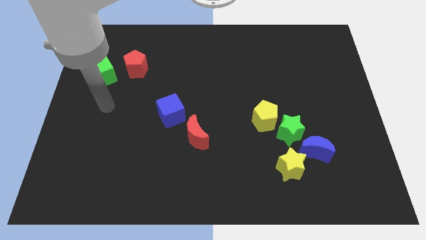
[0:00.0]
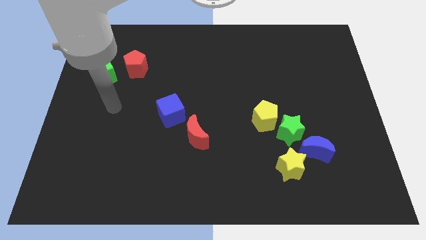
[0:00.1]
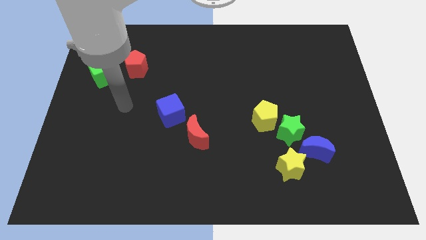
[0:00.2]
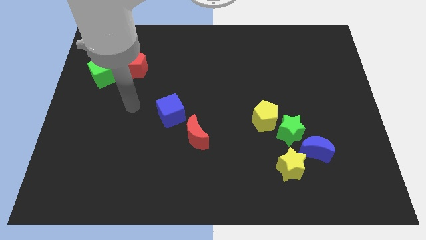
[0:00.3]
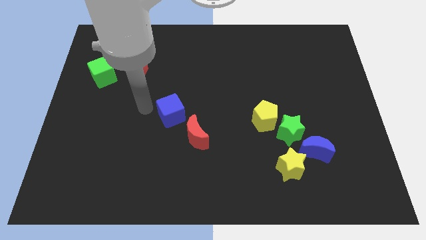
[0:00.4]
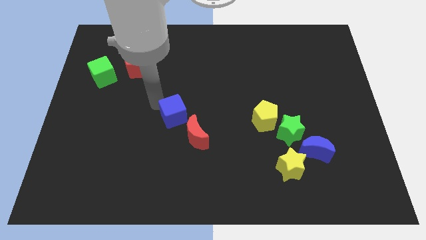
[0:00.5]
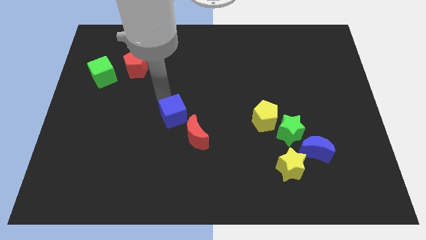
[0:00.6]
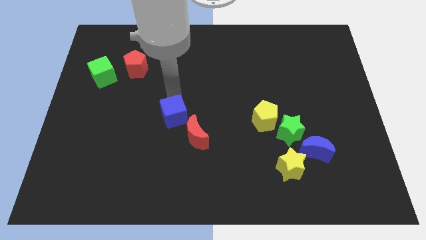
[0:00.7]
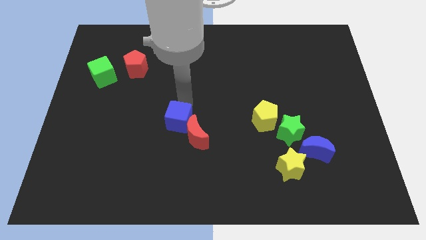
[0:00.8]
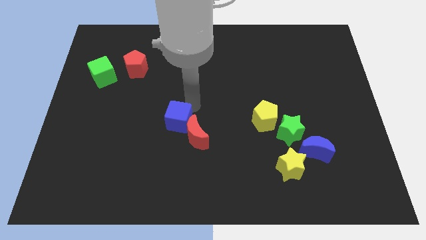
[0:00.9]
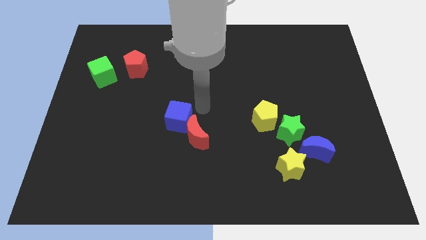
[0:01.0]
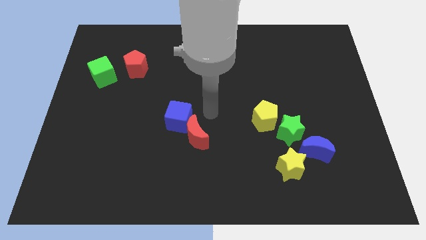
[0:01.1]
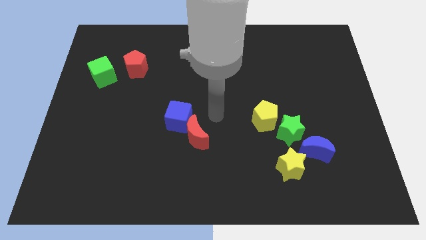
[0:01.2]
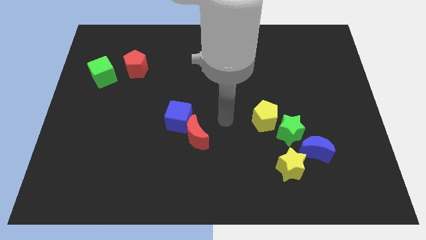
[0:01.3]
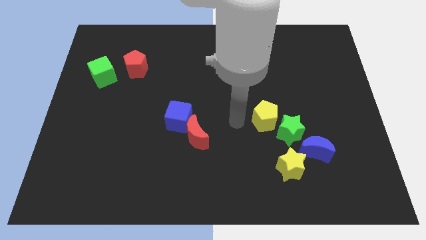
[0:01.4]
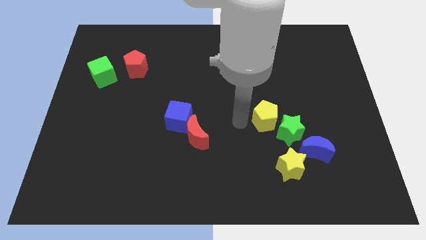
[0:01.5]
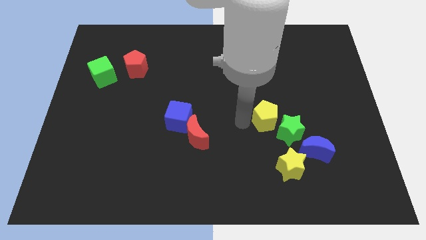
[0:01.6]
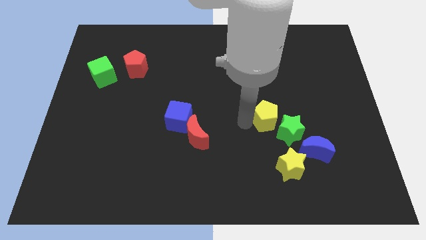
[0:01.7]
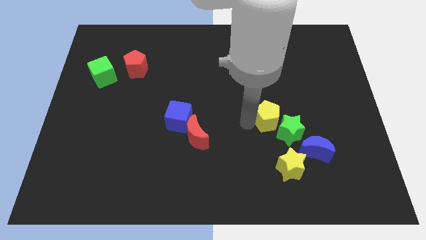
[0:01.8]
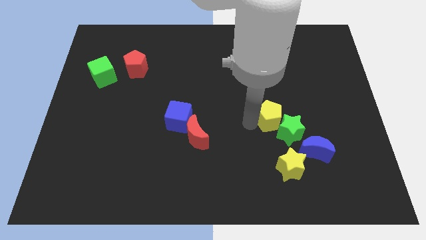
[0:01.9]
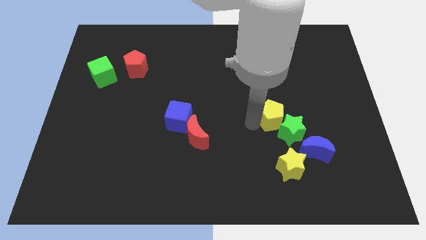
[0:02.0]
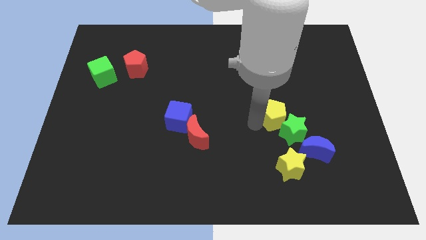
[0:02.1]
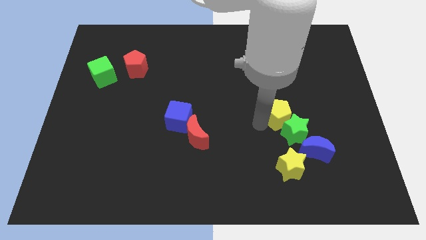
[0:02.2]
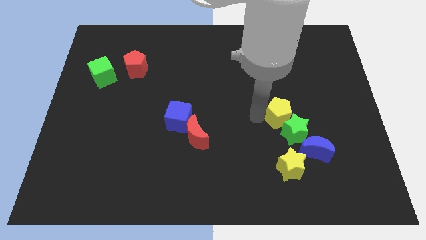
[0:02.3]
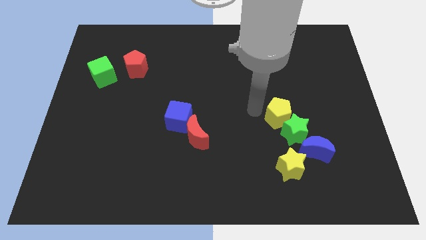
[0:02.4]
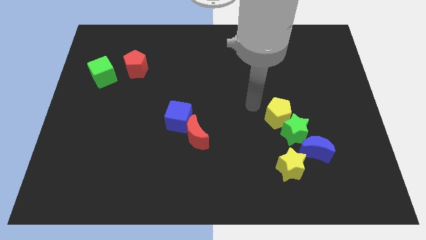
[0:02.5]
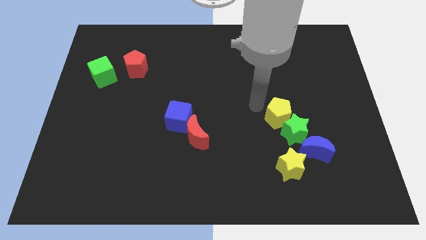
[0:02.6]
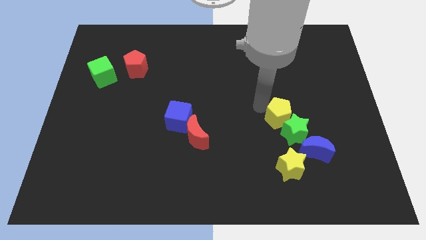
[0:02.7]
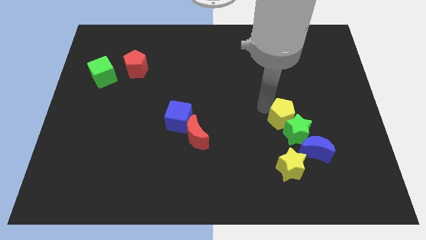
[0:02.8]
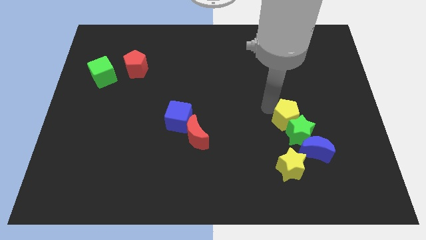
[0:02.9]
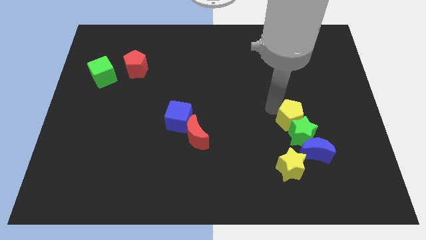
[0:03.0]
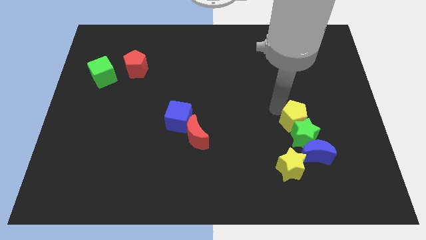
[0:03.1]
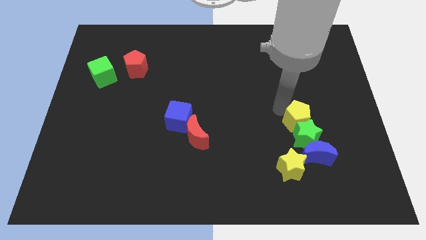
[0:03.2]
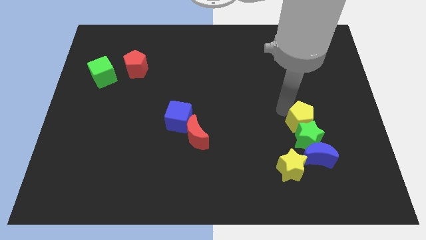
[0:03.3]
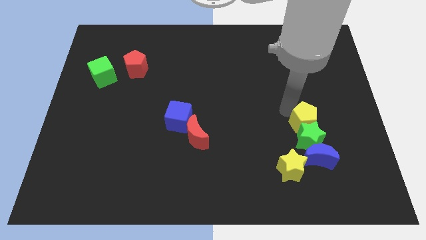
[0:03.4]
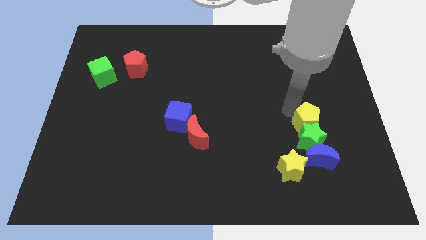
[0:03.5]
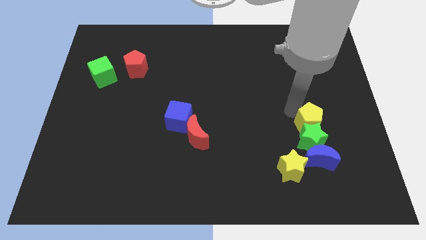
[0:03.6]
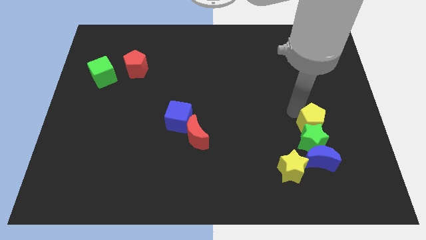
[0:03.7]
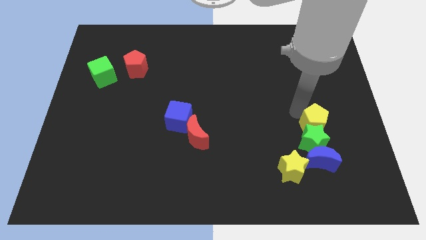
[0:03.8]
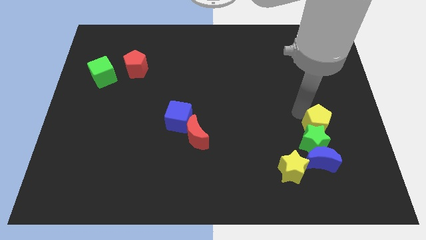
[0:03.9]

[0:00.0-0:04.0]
move the yellow pentagon a little bit downwards and then to the right

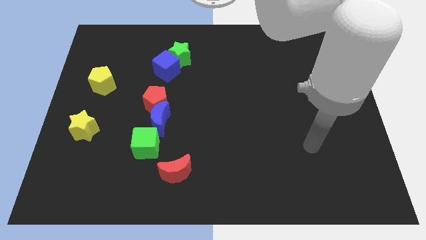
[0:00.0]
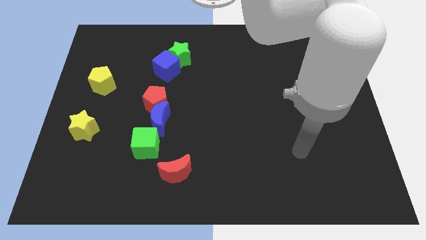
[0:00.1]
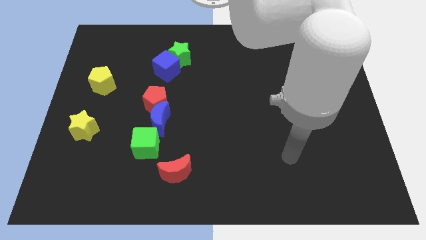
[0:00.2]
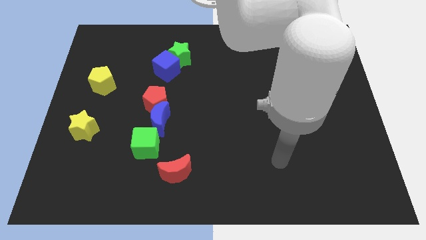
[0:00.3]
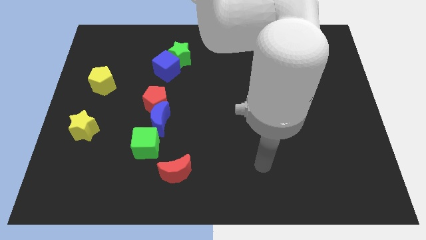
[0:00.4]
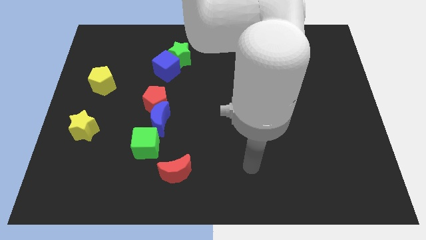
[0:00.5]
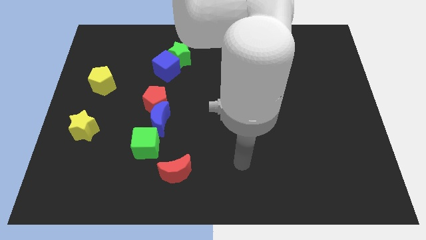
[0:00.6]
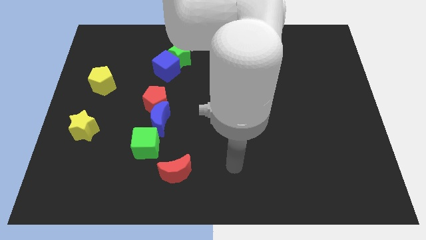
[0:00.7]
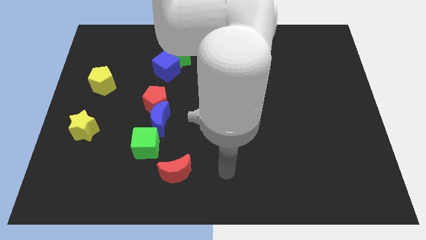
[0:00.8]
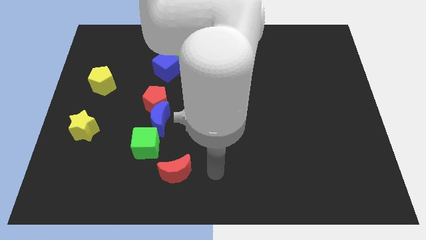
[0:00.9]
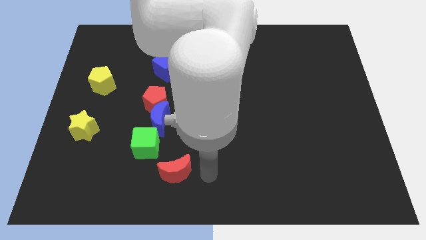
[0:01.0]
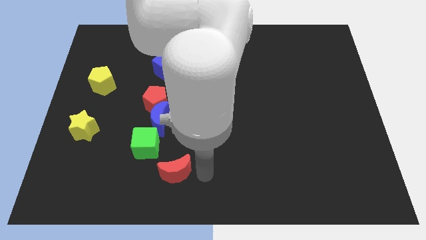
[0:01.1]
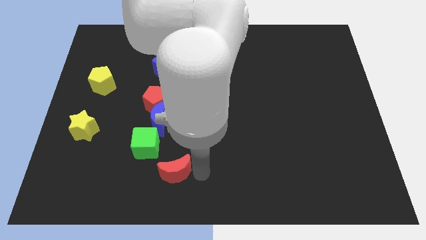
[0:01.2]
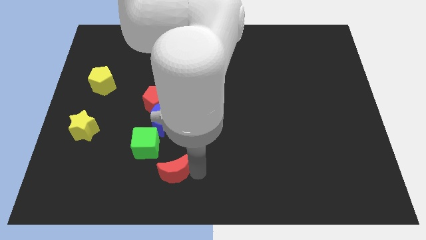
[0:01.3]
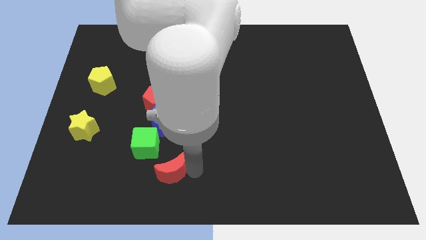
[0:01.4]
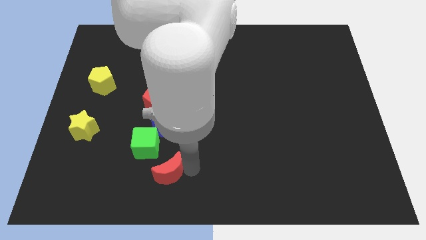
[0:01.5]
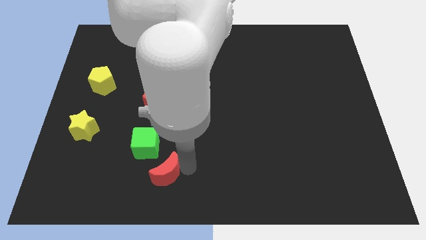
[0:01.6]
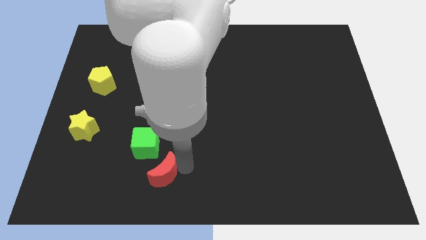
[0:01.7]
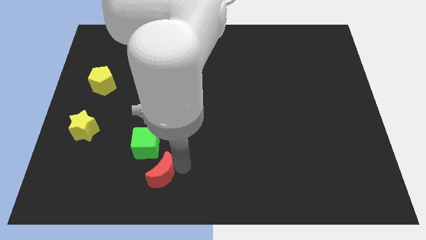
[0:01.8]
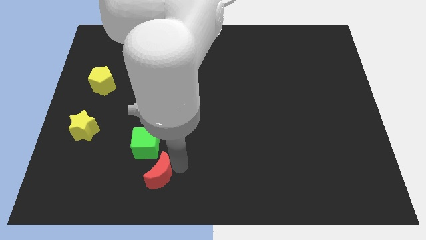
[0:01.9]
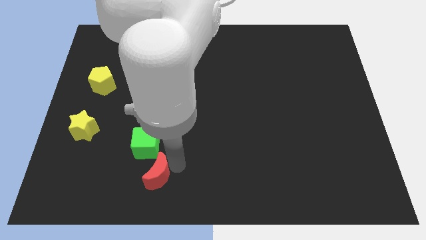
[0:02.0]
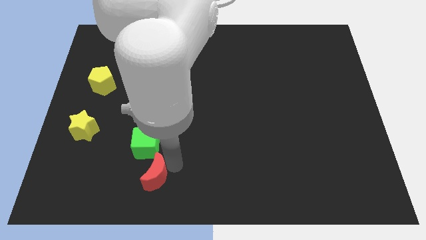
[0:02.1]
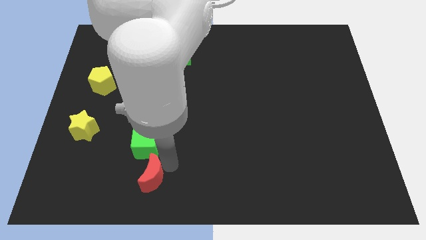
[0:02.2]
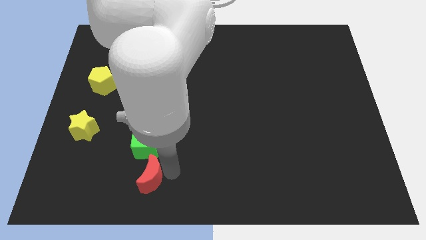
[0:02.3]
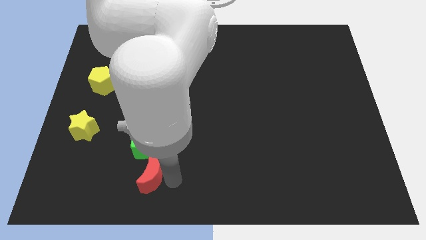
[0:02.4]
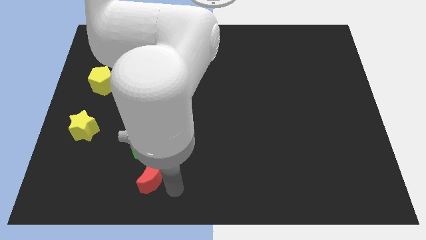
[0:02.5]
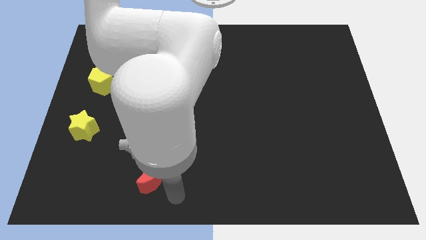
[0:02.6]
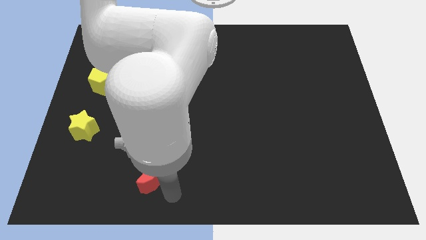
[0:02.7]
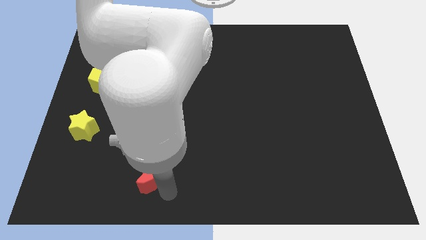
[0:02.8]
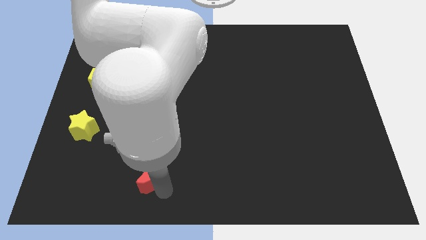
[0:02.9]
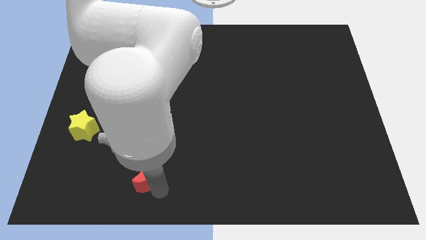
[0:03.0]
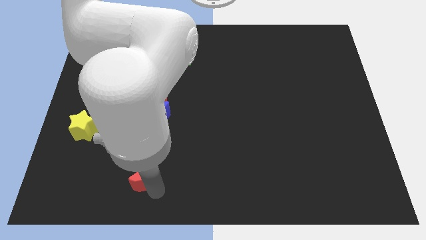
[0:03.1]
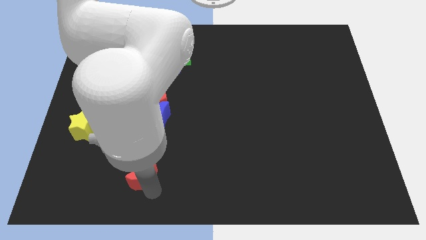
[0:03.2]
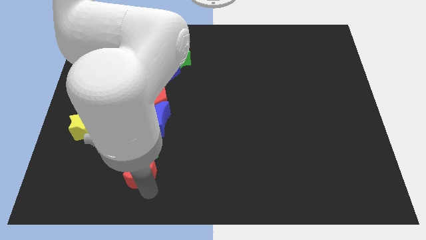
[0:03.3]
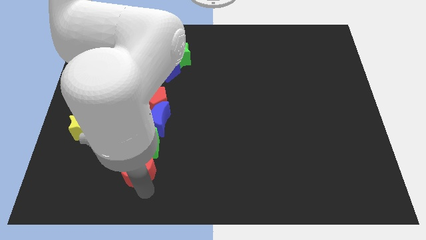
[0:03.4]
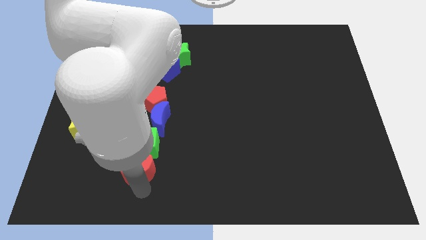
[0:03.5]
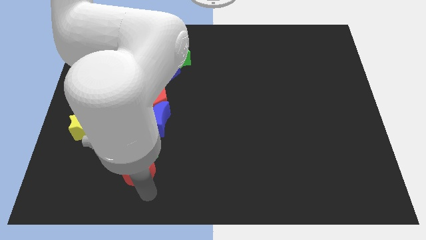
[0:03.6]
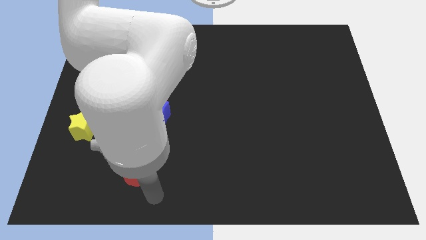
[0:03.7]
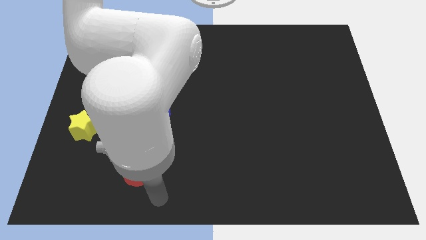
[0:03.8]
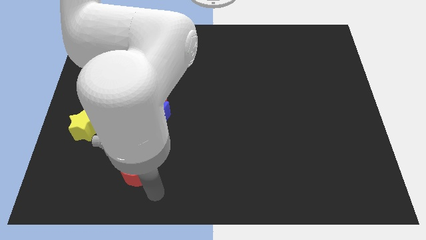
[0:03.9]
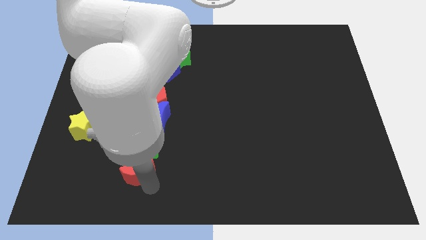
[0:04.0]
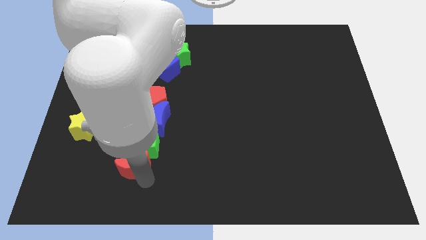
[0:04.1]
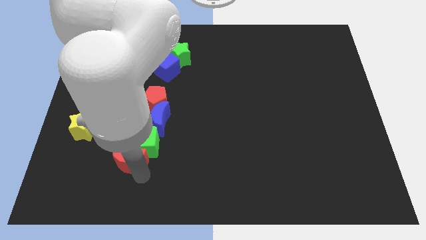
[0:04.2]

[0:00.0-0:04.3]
slide the red moon up and to the left a little bit
